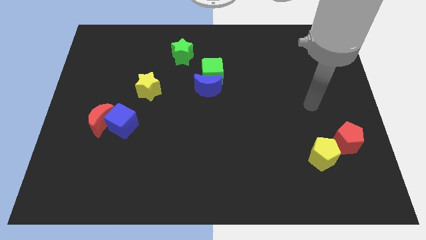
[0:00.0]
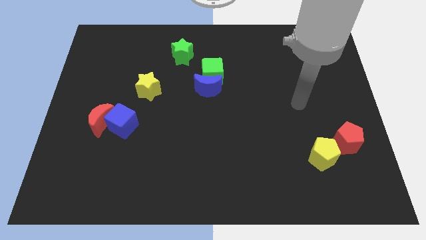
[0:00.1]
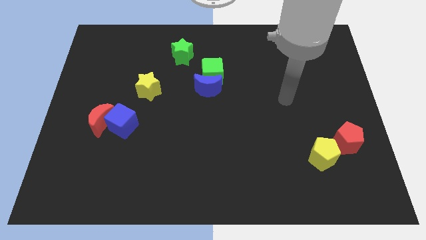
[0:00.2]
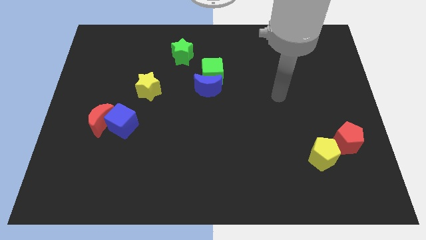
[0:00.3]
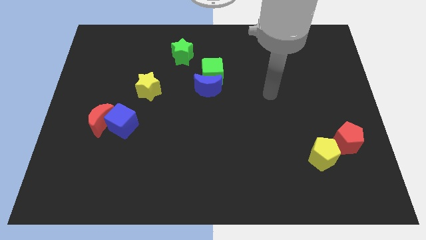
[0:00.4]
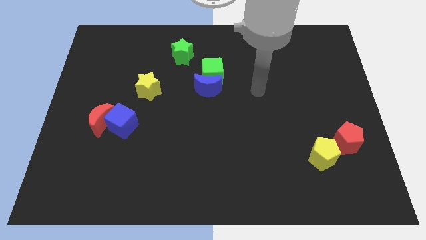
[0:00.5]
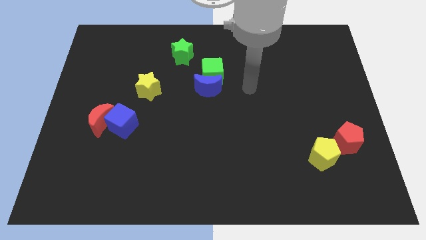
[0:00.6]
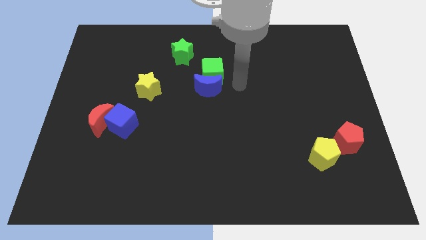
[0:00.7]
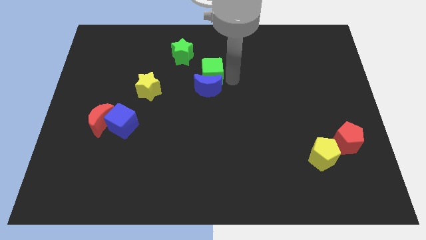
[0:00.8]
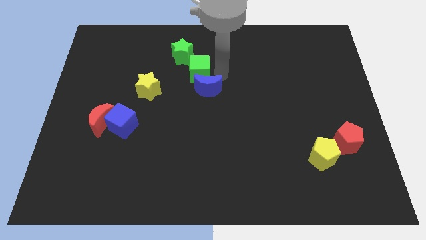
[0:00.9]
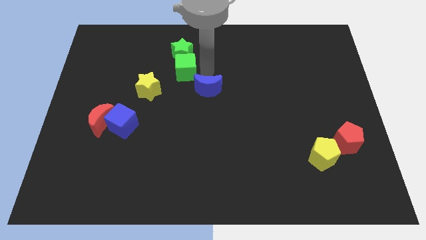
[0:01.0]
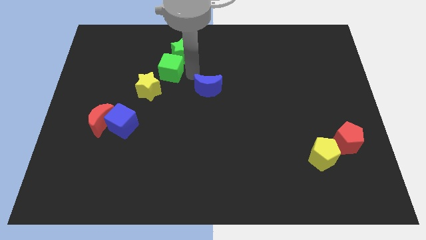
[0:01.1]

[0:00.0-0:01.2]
move the blue moon away from the green cube

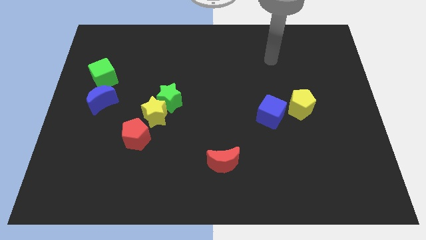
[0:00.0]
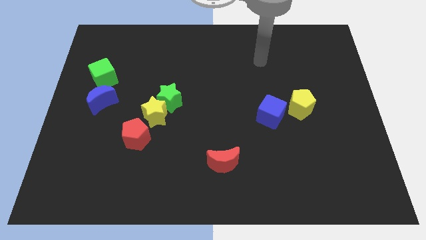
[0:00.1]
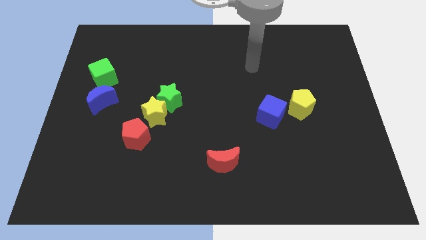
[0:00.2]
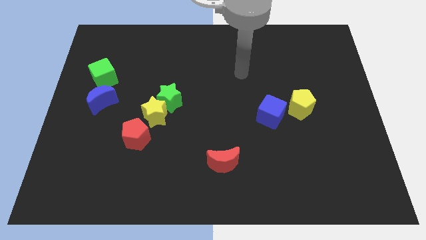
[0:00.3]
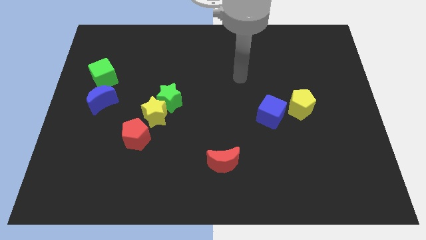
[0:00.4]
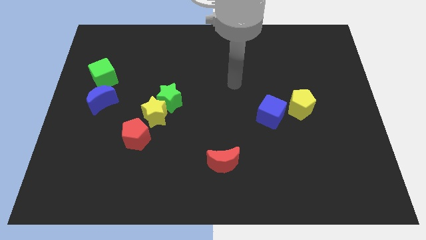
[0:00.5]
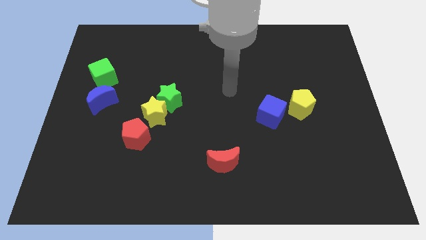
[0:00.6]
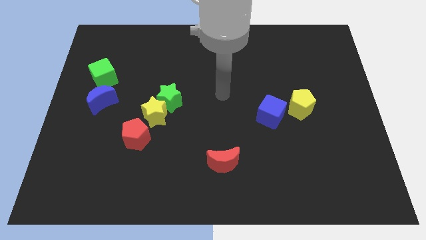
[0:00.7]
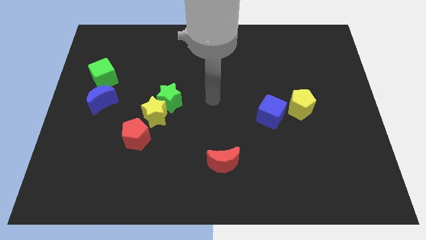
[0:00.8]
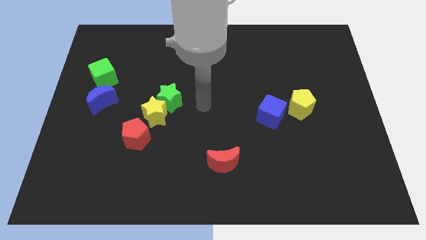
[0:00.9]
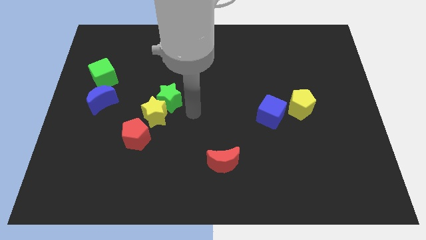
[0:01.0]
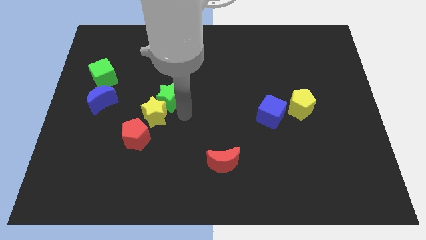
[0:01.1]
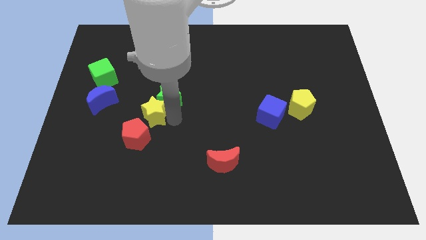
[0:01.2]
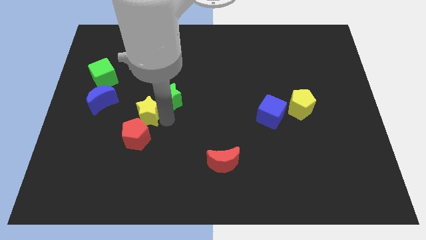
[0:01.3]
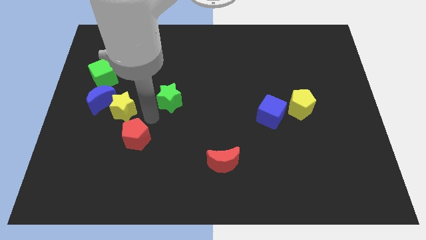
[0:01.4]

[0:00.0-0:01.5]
pull the green star apart from the yellow star

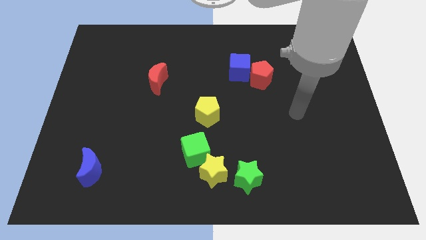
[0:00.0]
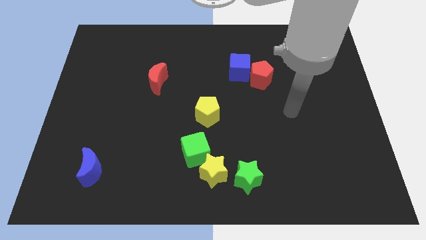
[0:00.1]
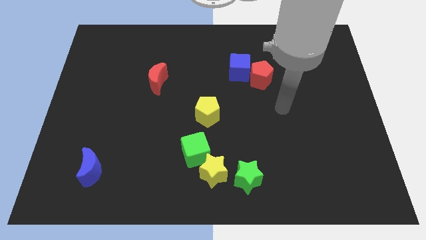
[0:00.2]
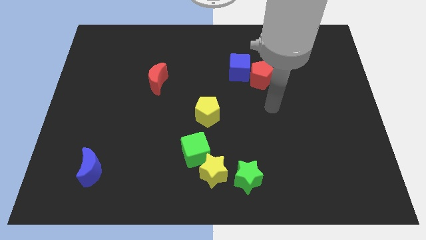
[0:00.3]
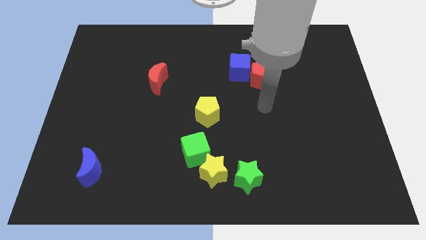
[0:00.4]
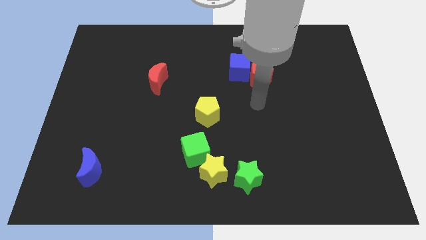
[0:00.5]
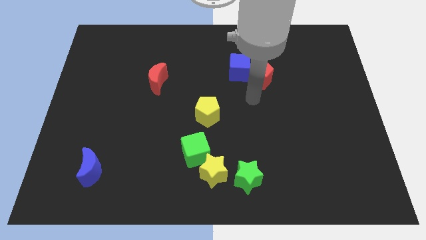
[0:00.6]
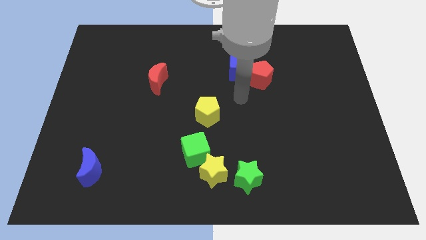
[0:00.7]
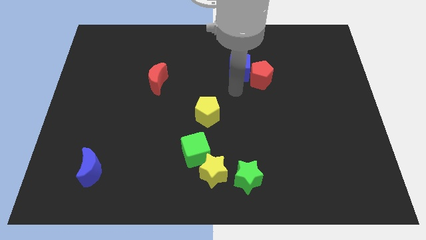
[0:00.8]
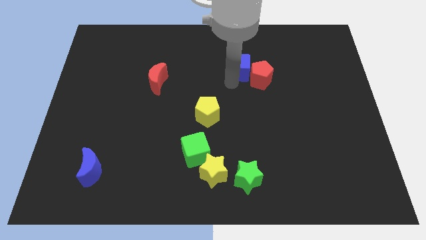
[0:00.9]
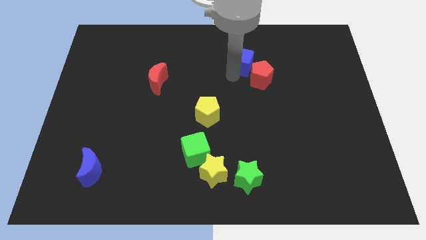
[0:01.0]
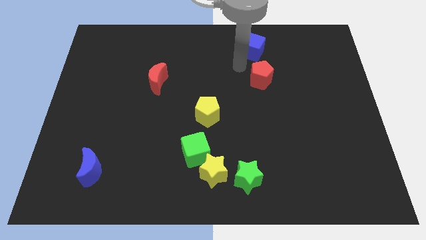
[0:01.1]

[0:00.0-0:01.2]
move the red pentagon away from the blue cube

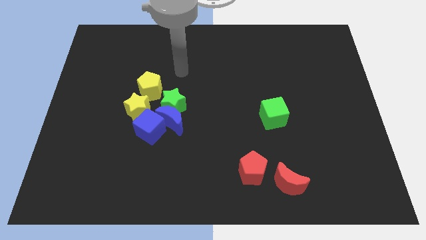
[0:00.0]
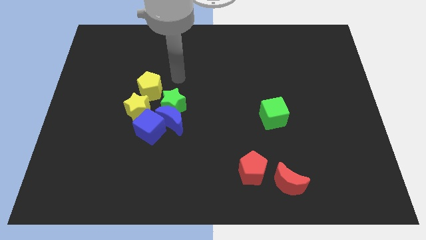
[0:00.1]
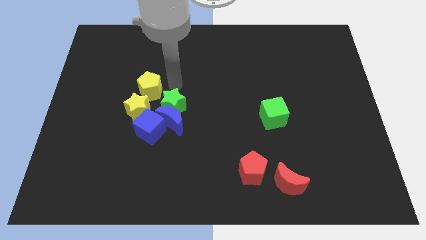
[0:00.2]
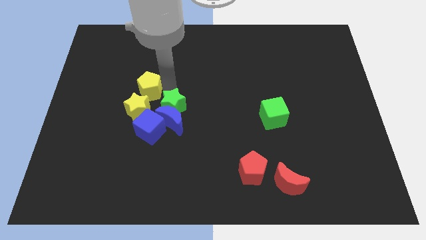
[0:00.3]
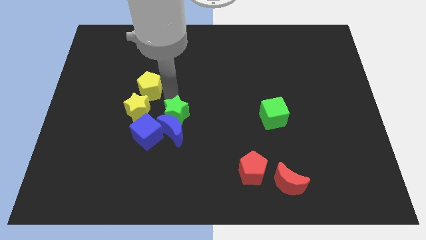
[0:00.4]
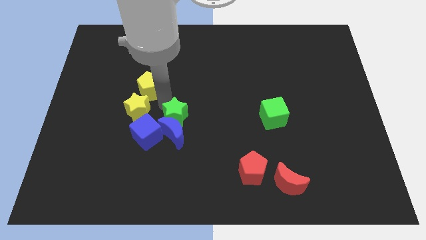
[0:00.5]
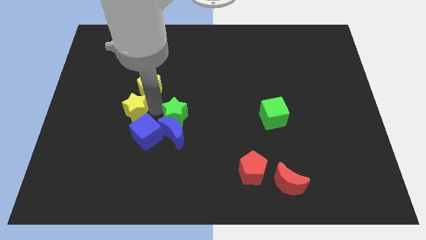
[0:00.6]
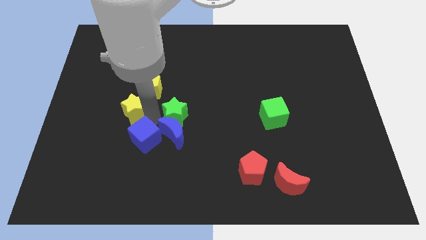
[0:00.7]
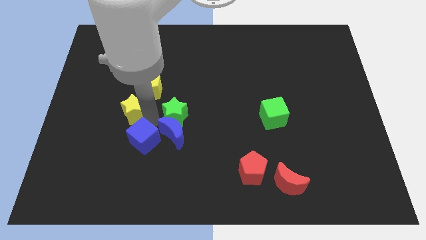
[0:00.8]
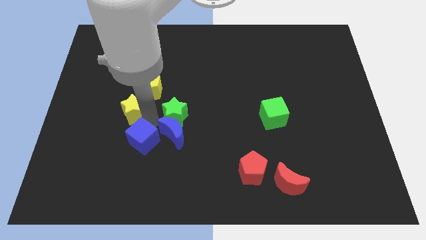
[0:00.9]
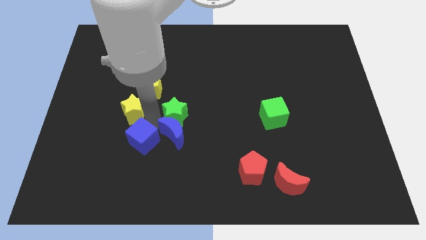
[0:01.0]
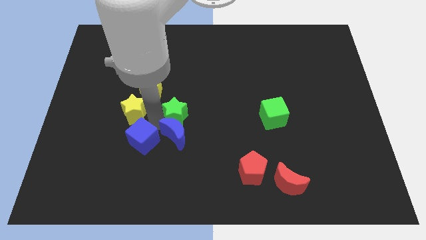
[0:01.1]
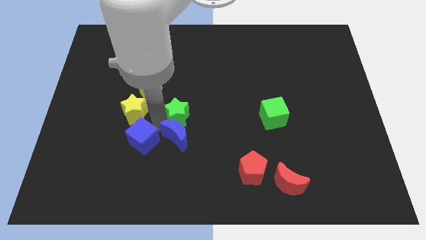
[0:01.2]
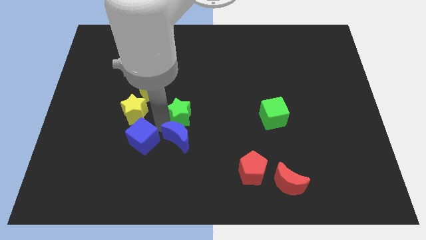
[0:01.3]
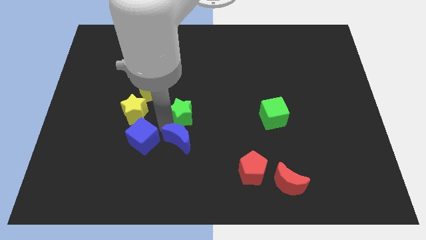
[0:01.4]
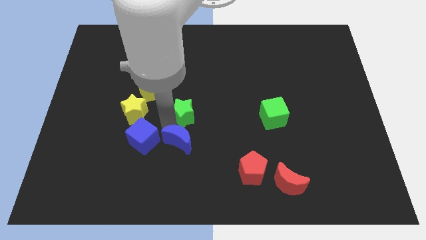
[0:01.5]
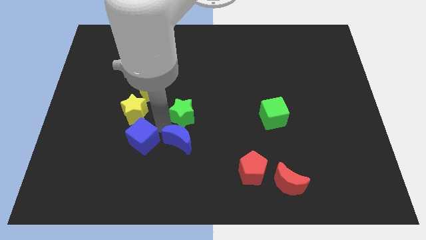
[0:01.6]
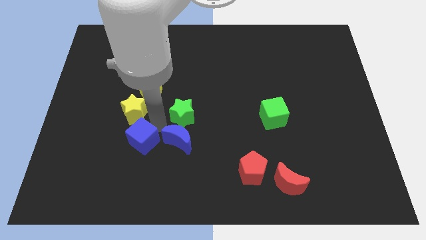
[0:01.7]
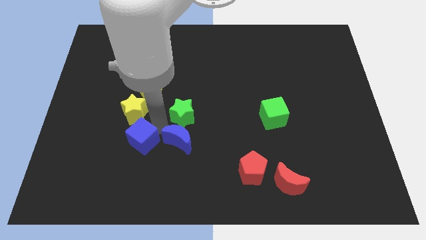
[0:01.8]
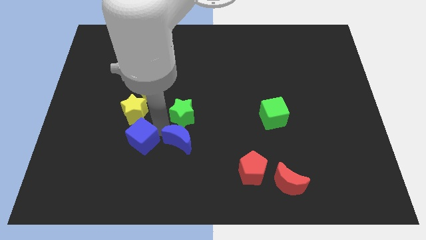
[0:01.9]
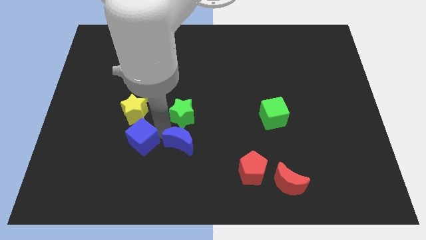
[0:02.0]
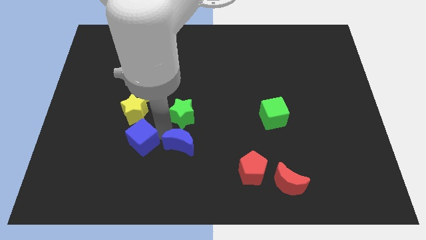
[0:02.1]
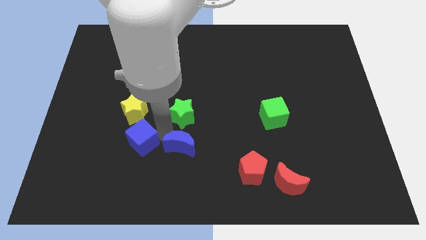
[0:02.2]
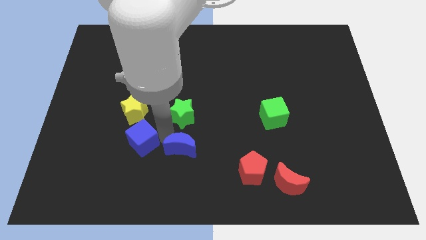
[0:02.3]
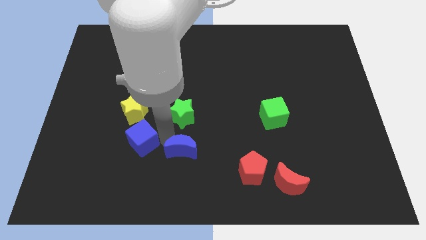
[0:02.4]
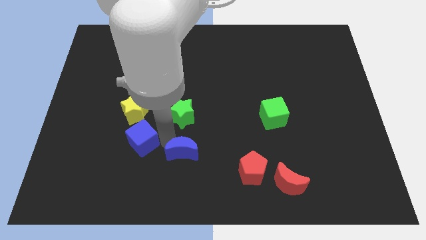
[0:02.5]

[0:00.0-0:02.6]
move the blue moon away from the green star, blue cube, and yellow star

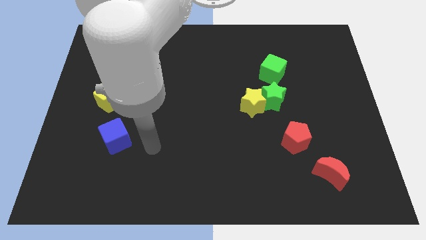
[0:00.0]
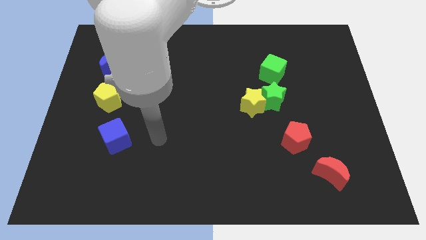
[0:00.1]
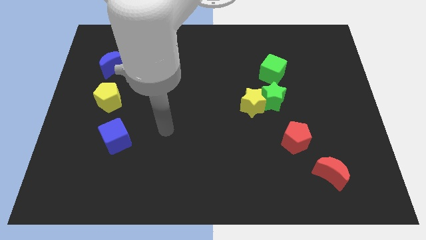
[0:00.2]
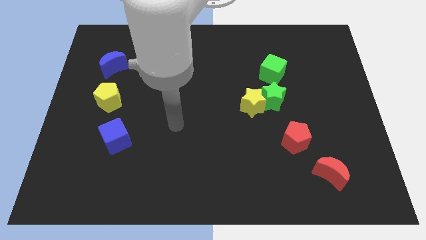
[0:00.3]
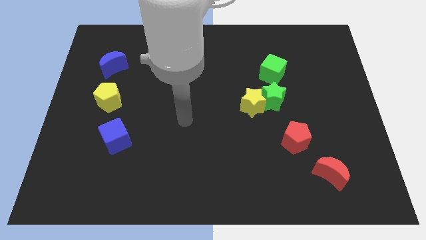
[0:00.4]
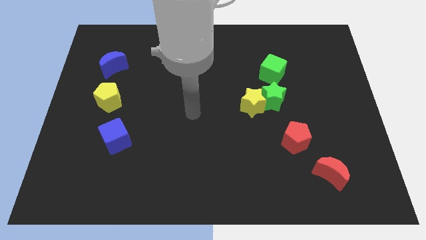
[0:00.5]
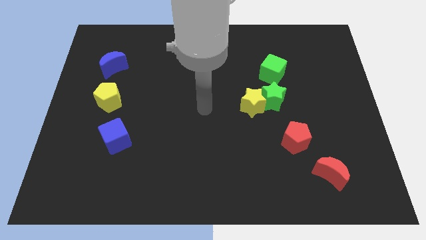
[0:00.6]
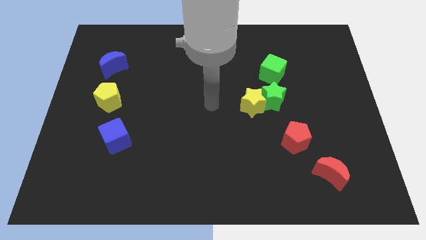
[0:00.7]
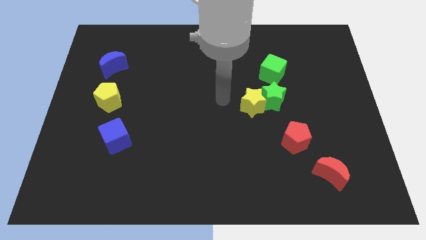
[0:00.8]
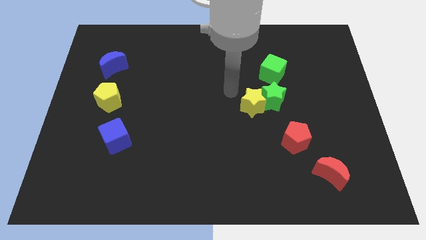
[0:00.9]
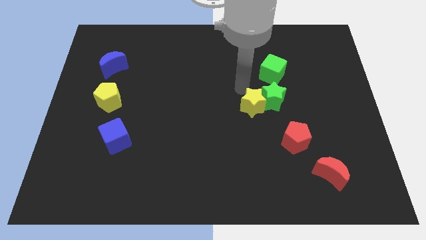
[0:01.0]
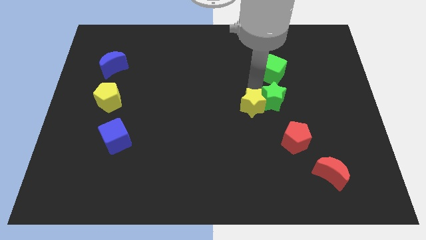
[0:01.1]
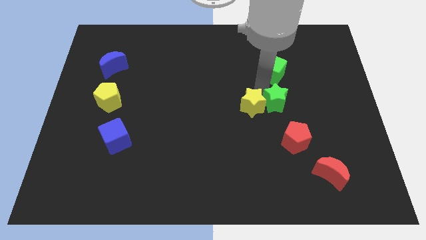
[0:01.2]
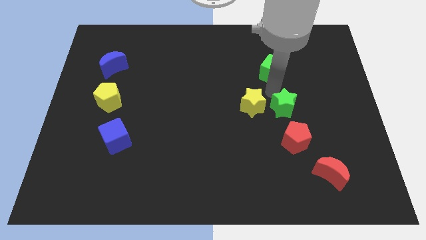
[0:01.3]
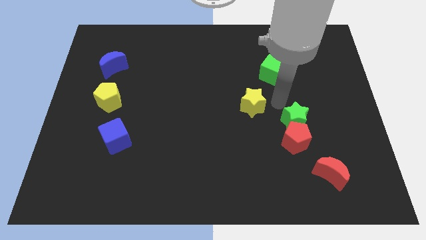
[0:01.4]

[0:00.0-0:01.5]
pull the yellow star apart from the green star

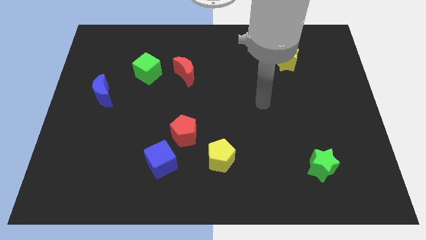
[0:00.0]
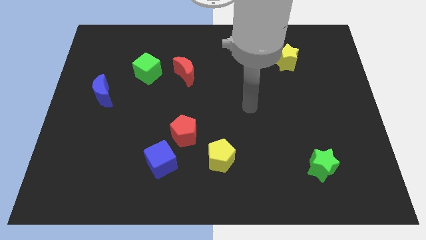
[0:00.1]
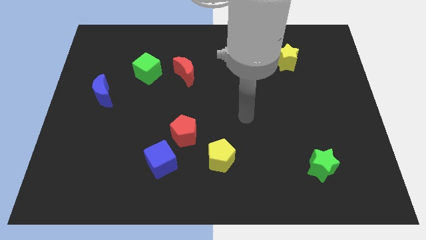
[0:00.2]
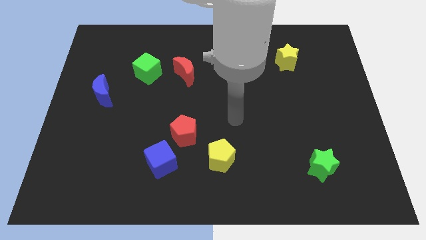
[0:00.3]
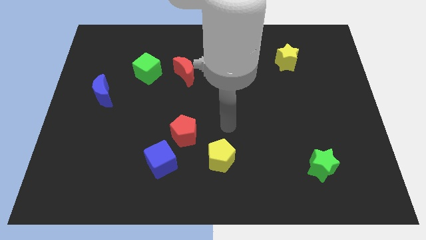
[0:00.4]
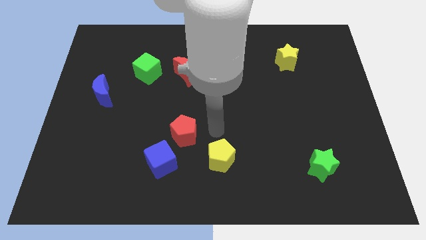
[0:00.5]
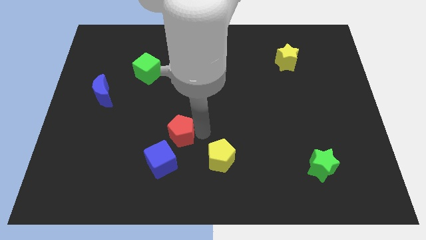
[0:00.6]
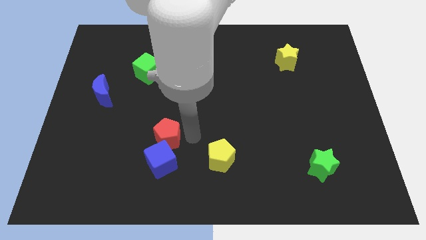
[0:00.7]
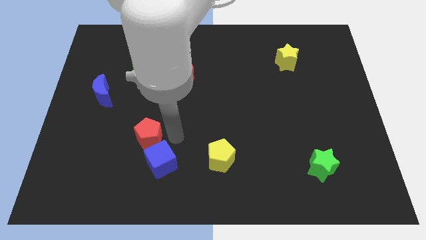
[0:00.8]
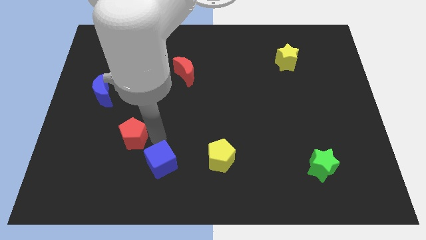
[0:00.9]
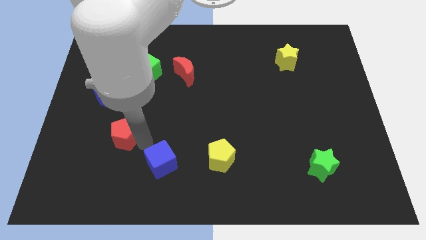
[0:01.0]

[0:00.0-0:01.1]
separate the blue cube from the red pentagon

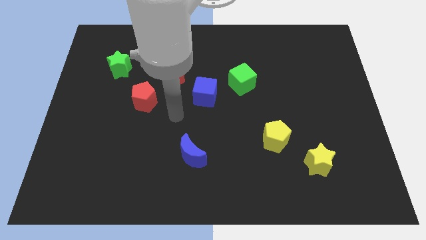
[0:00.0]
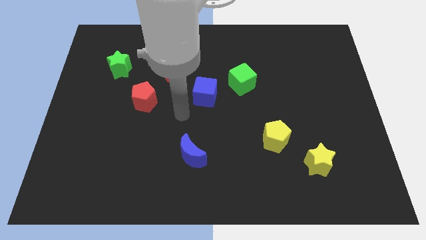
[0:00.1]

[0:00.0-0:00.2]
move the blue cube away from the green cube
